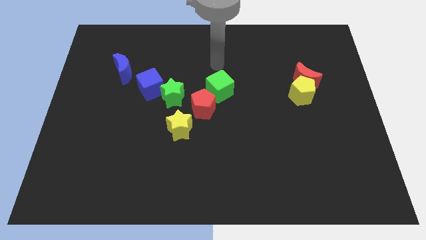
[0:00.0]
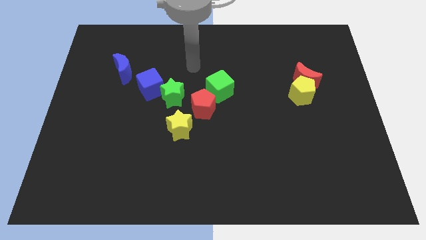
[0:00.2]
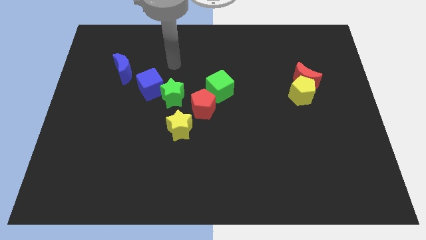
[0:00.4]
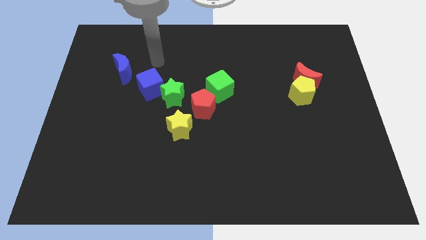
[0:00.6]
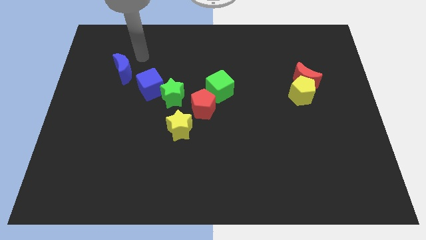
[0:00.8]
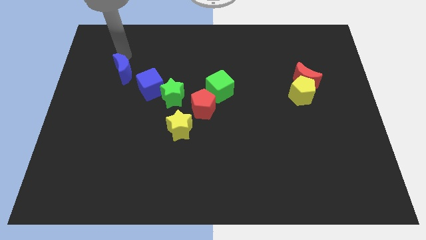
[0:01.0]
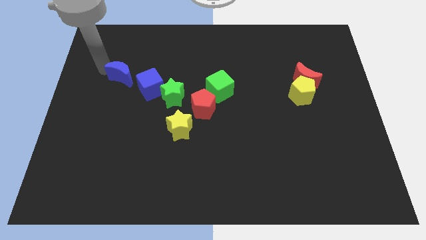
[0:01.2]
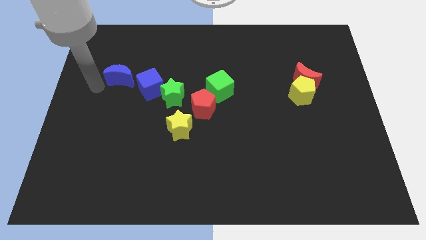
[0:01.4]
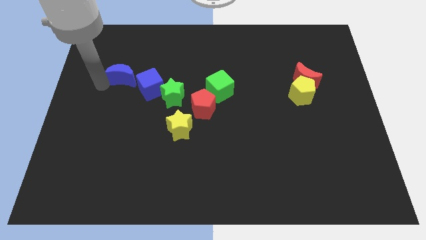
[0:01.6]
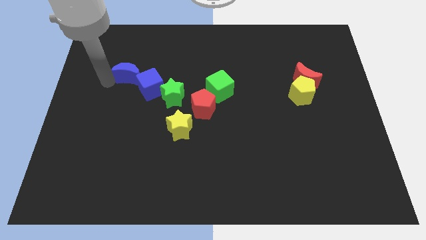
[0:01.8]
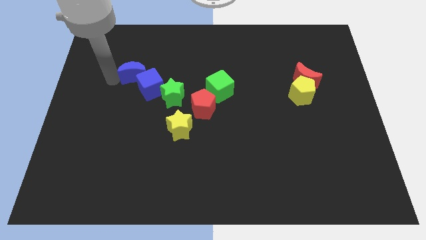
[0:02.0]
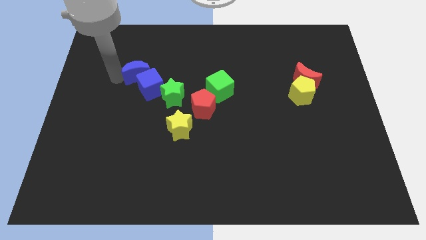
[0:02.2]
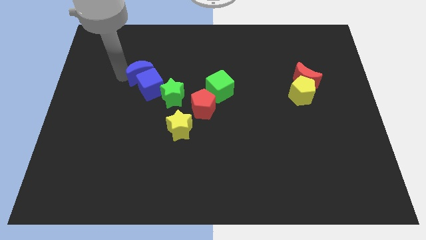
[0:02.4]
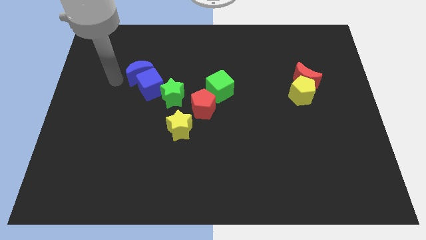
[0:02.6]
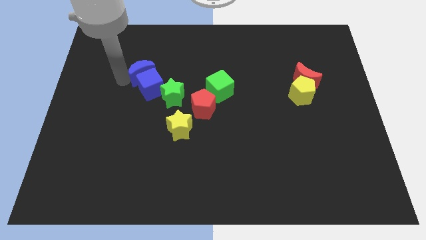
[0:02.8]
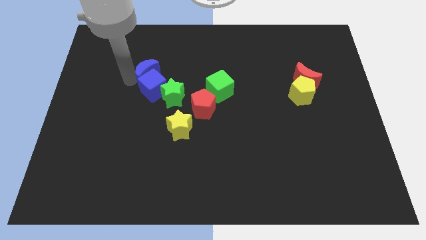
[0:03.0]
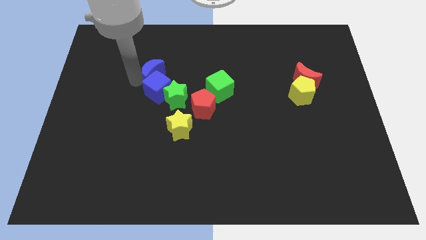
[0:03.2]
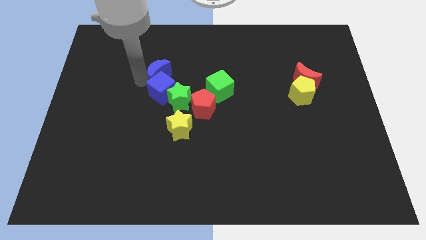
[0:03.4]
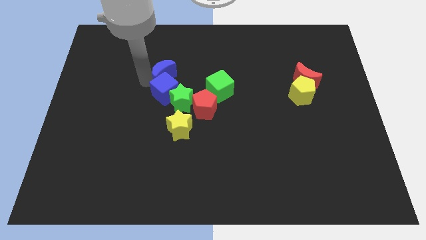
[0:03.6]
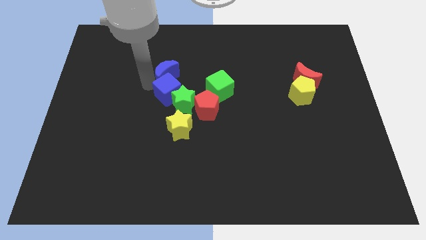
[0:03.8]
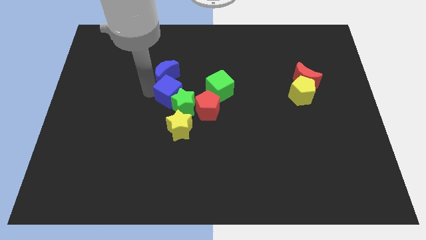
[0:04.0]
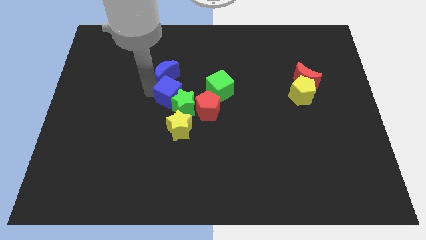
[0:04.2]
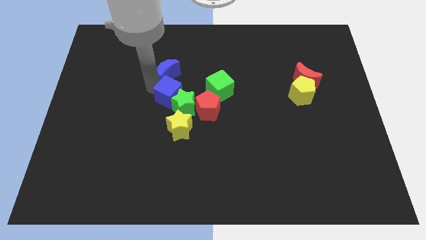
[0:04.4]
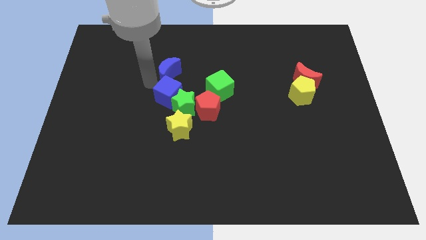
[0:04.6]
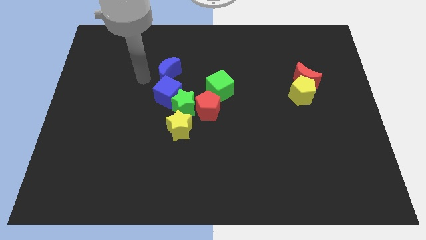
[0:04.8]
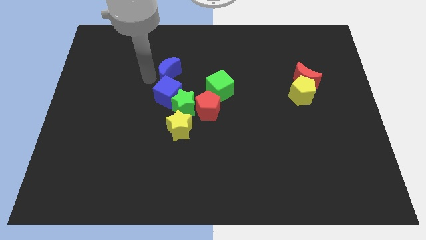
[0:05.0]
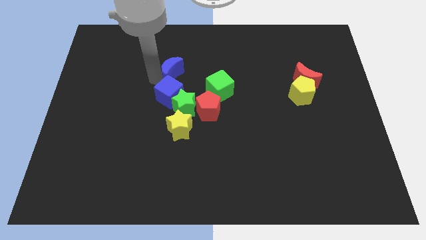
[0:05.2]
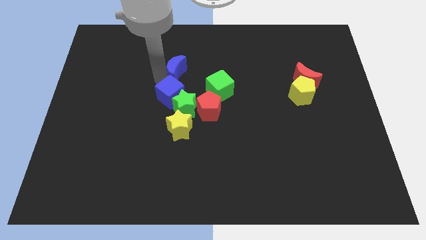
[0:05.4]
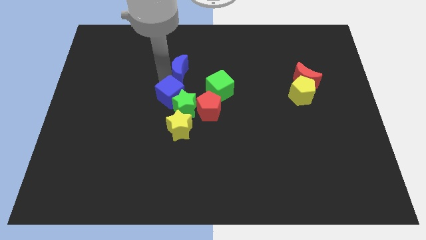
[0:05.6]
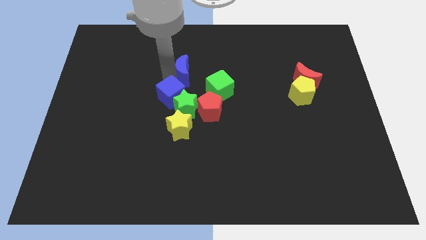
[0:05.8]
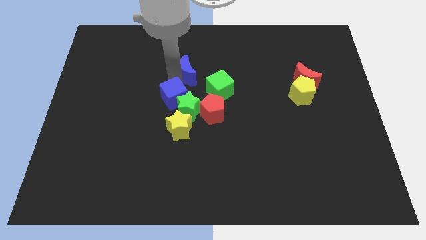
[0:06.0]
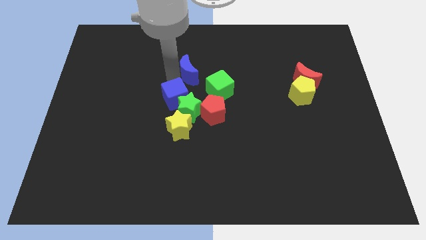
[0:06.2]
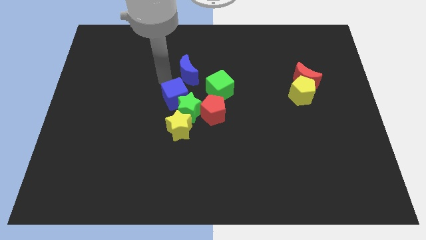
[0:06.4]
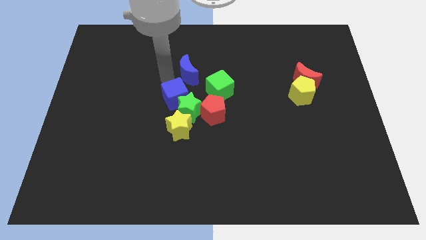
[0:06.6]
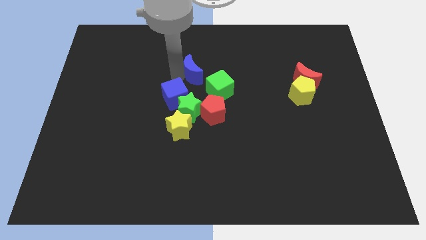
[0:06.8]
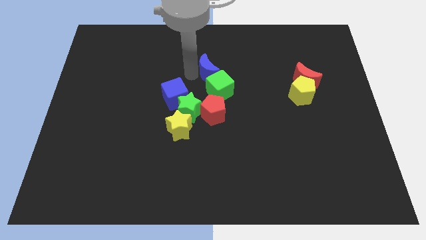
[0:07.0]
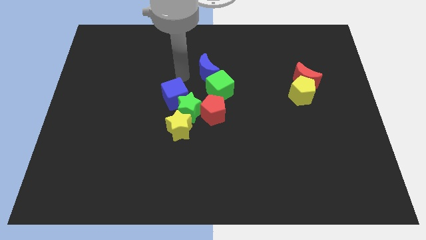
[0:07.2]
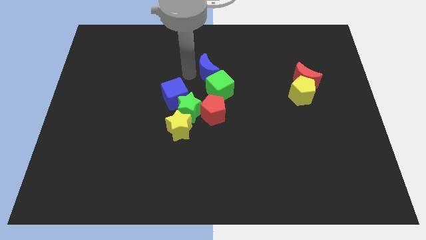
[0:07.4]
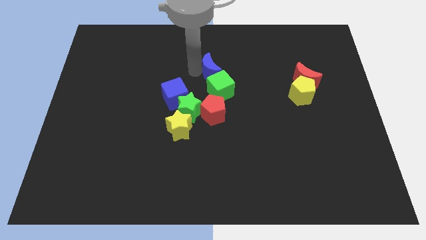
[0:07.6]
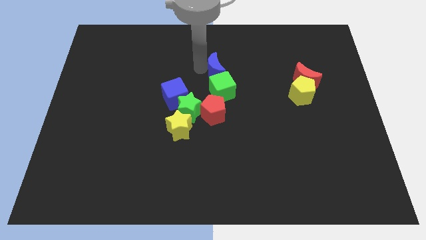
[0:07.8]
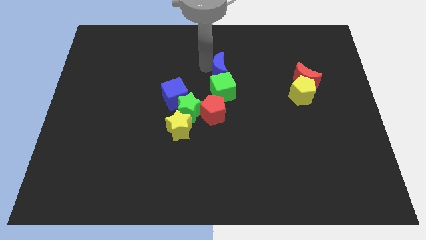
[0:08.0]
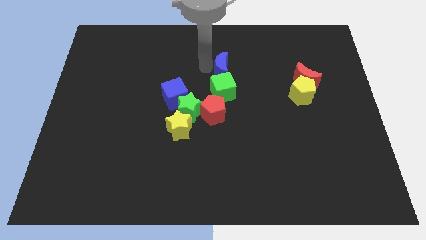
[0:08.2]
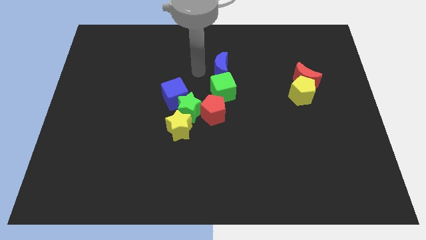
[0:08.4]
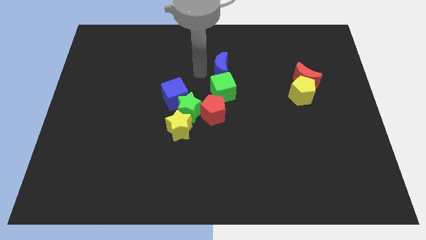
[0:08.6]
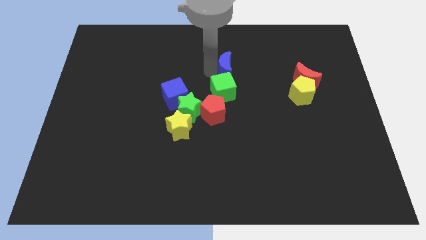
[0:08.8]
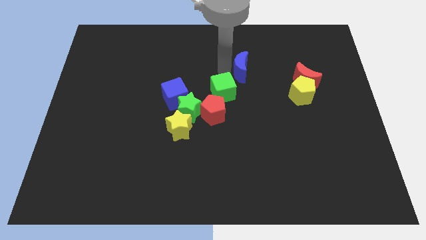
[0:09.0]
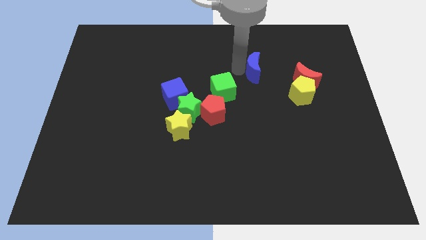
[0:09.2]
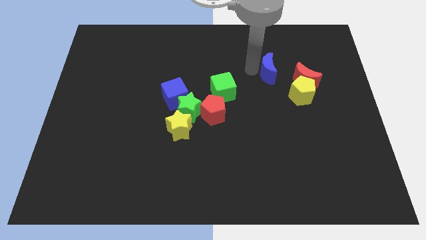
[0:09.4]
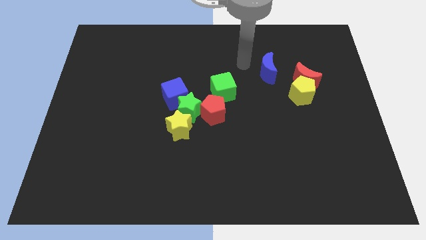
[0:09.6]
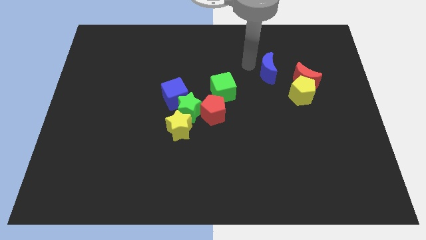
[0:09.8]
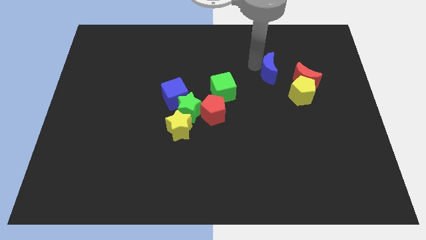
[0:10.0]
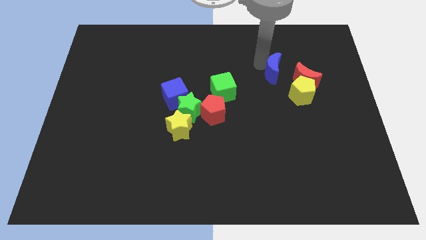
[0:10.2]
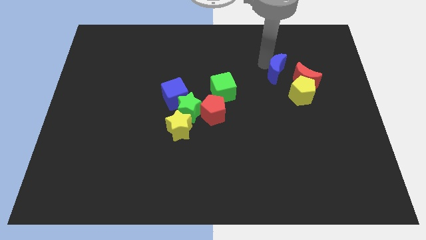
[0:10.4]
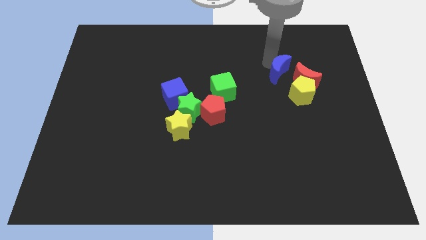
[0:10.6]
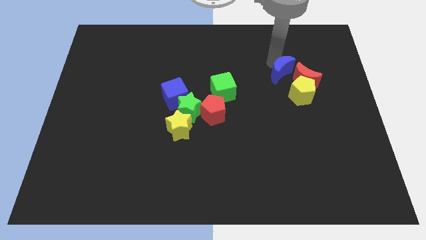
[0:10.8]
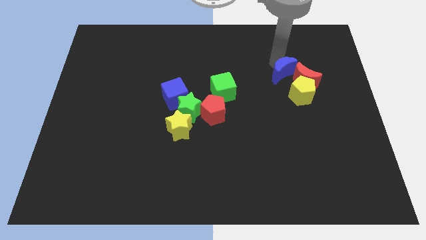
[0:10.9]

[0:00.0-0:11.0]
move the blue moon towards the red moon

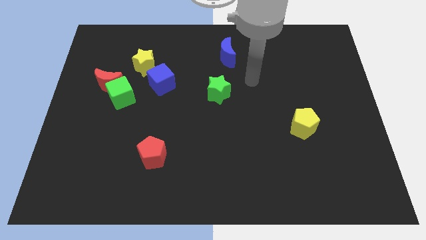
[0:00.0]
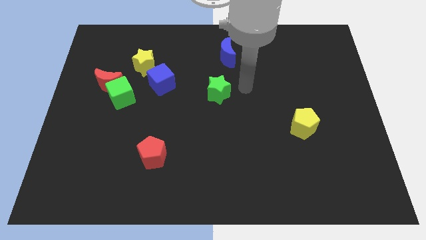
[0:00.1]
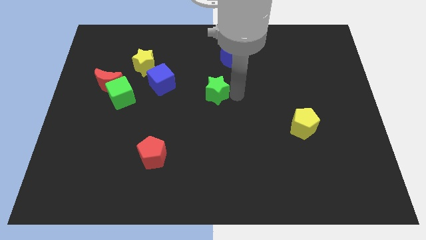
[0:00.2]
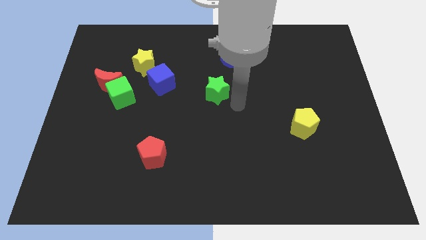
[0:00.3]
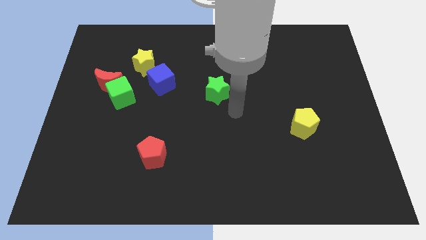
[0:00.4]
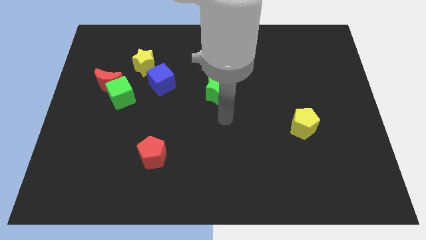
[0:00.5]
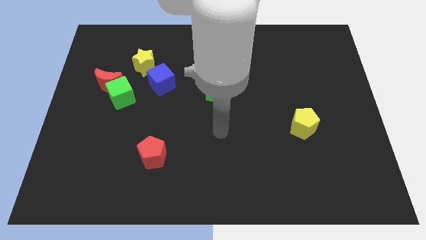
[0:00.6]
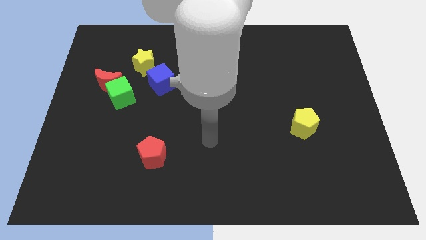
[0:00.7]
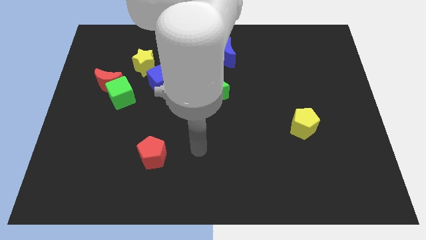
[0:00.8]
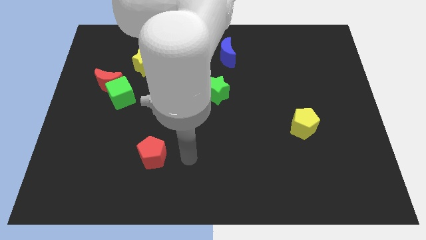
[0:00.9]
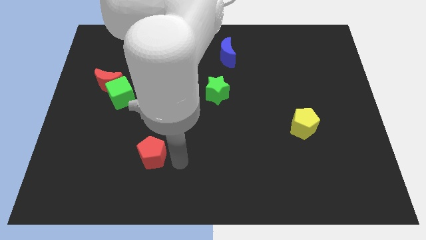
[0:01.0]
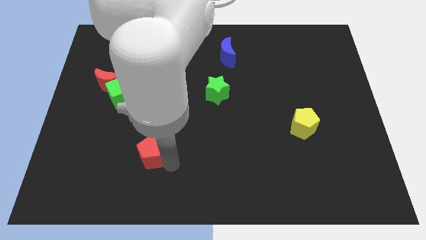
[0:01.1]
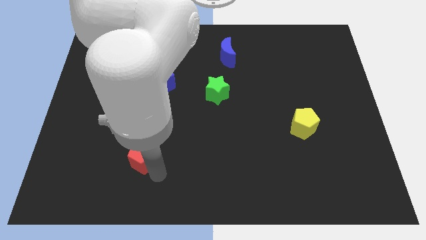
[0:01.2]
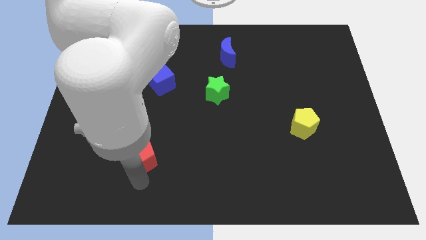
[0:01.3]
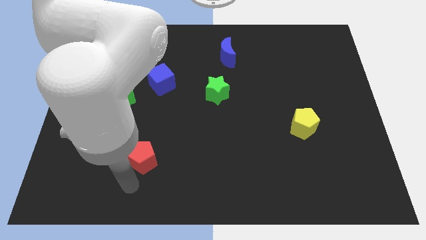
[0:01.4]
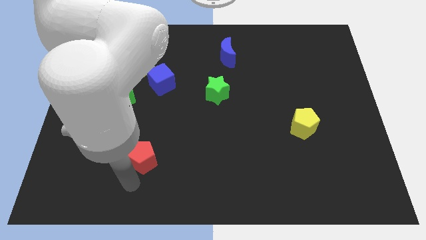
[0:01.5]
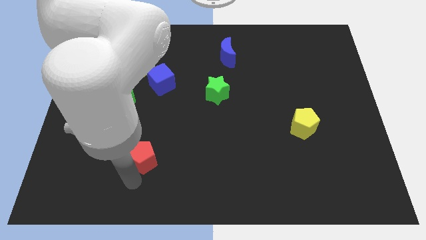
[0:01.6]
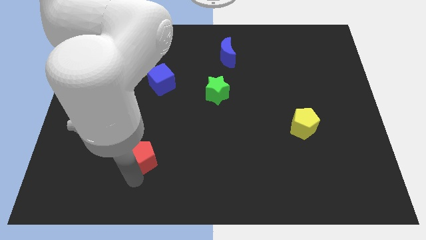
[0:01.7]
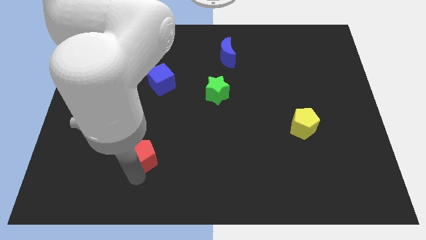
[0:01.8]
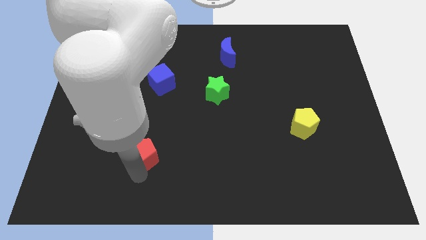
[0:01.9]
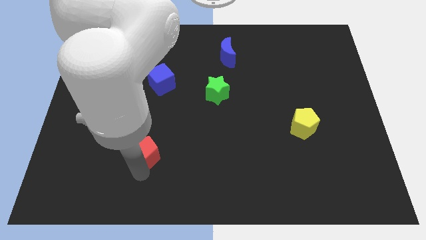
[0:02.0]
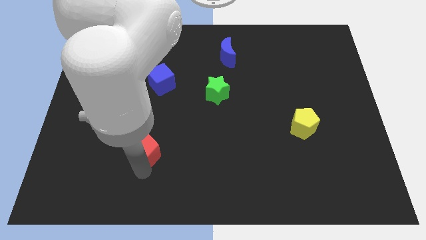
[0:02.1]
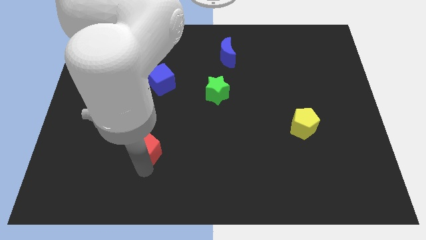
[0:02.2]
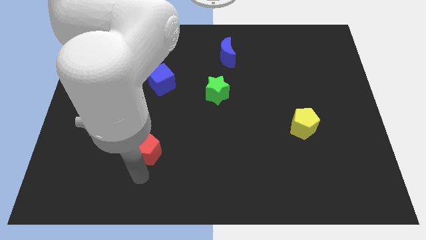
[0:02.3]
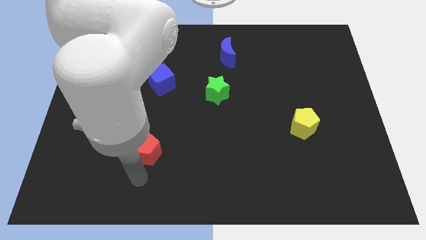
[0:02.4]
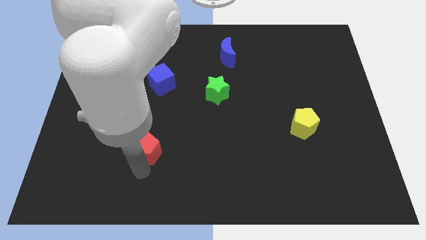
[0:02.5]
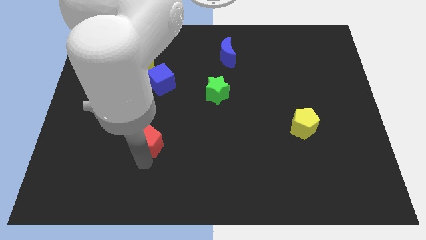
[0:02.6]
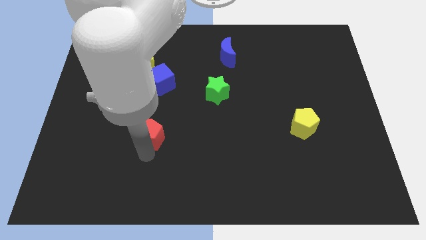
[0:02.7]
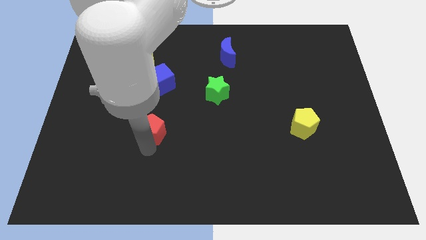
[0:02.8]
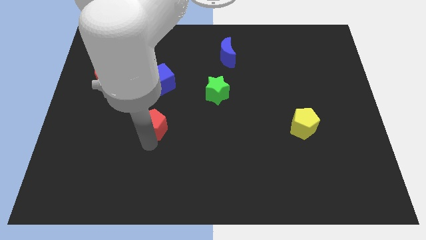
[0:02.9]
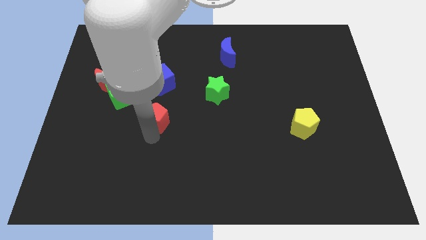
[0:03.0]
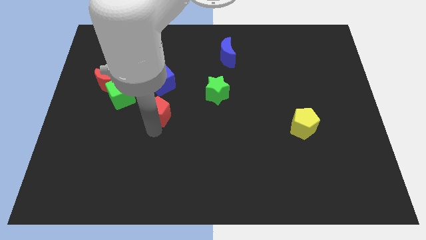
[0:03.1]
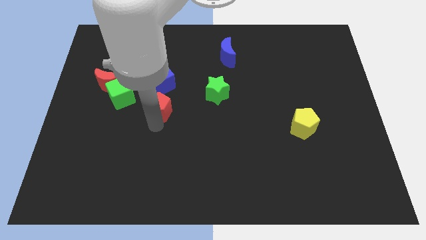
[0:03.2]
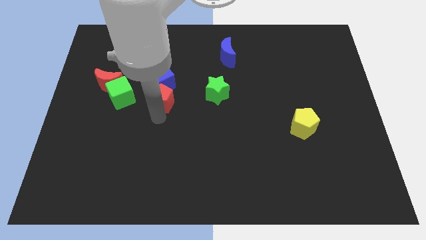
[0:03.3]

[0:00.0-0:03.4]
put the red pentagon towards the blue cube
